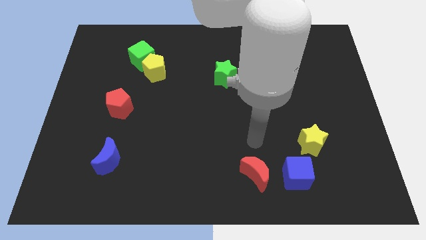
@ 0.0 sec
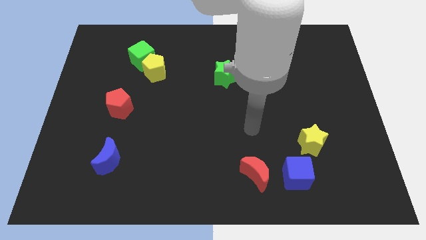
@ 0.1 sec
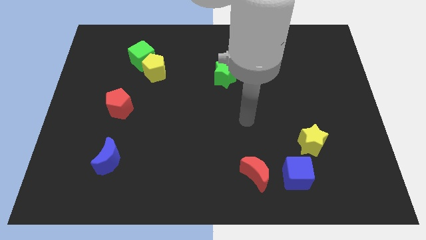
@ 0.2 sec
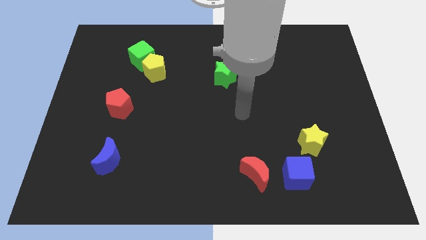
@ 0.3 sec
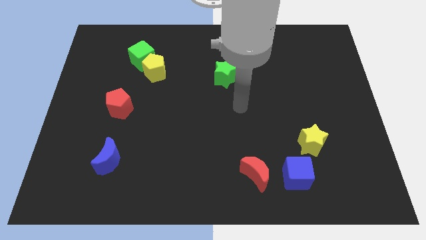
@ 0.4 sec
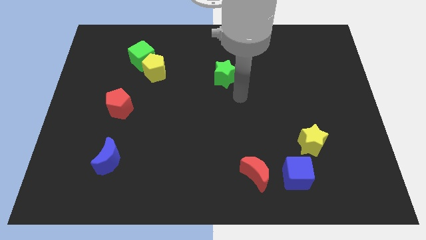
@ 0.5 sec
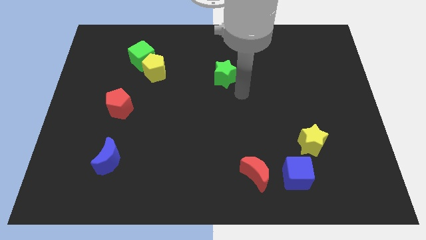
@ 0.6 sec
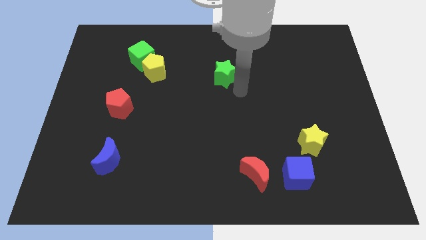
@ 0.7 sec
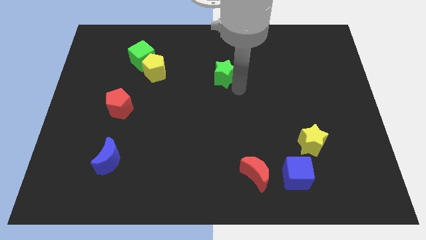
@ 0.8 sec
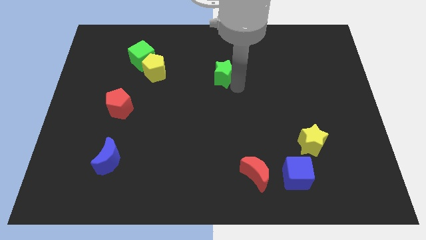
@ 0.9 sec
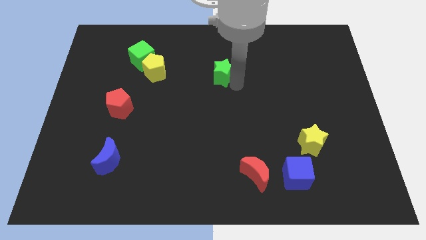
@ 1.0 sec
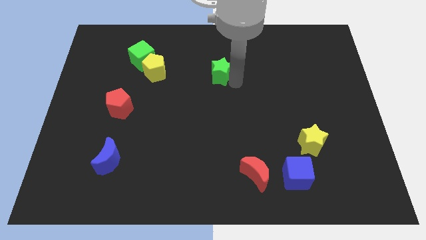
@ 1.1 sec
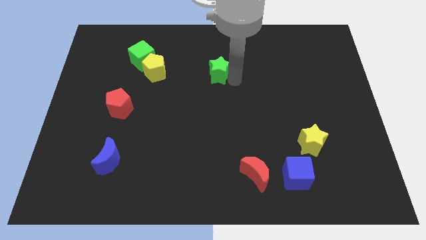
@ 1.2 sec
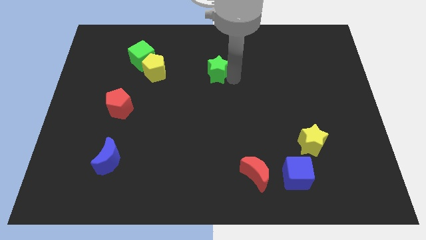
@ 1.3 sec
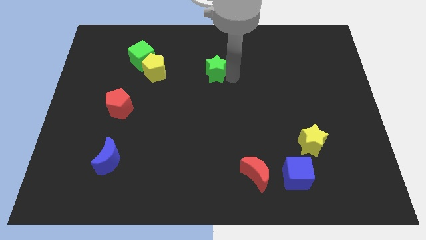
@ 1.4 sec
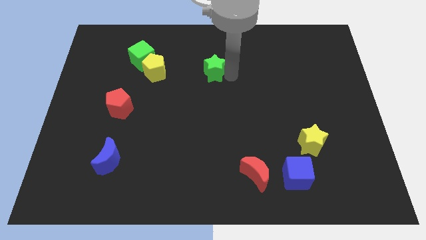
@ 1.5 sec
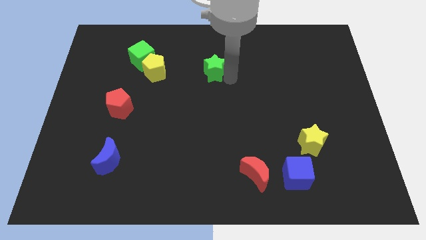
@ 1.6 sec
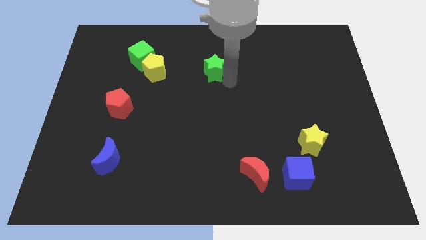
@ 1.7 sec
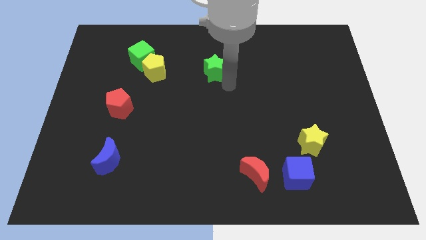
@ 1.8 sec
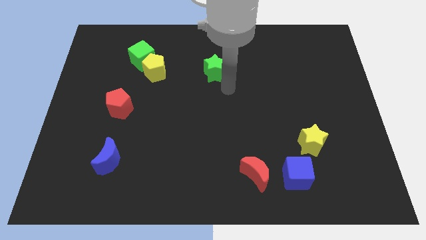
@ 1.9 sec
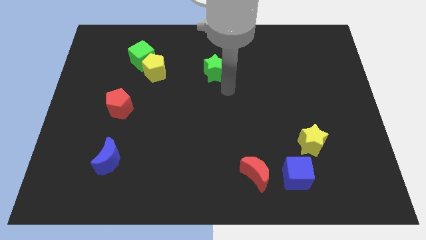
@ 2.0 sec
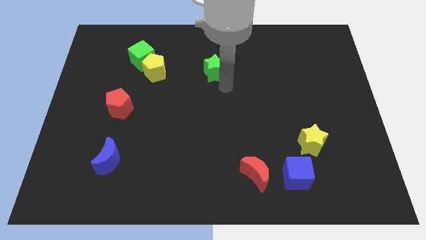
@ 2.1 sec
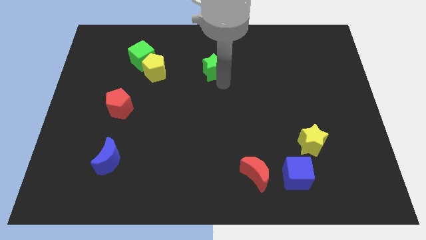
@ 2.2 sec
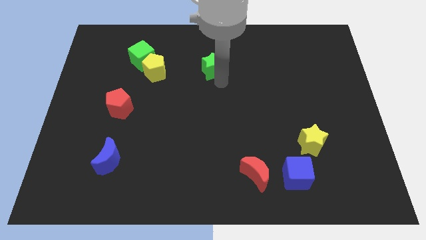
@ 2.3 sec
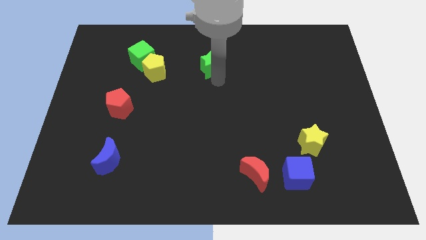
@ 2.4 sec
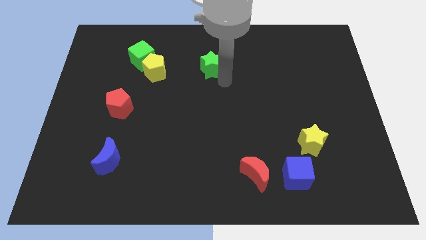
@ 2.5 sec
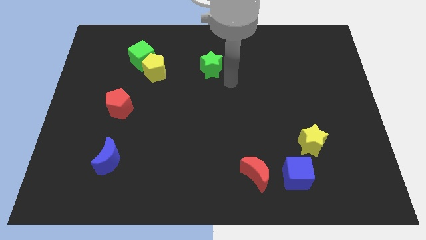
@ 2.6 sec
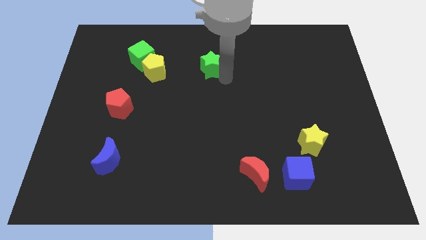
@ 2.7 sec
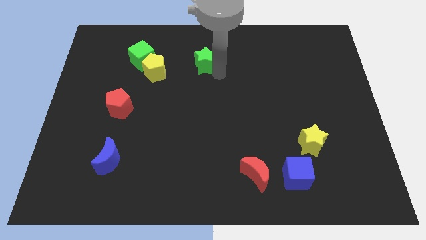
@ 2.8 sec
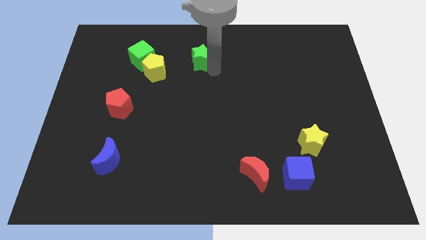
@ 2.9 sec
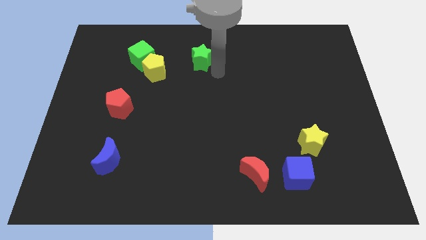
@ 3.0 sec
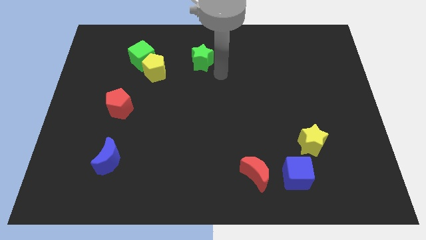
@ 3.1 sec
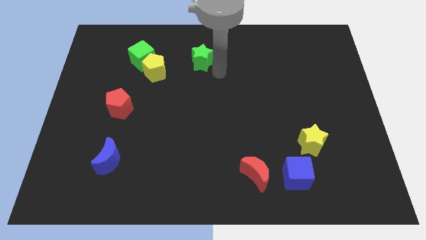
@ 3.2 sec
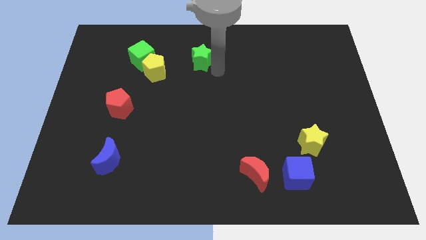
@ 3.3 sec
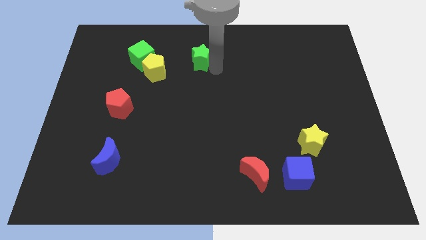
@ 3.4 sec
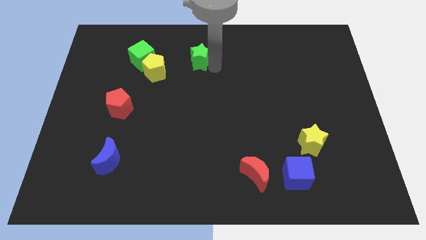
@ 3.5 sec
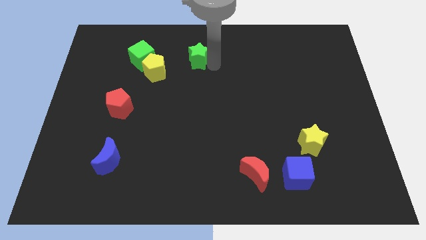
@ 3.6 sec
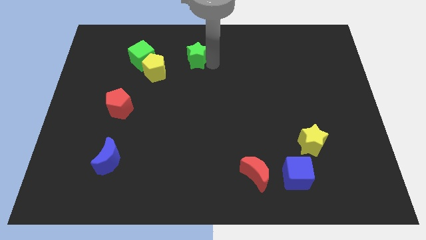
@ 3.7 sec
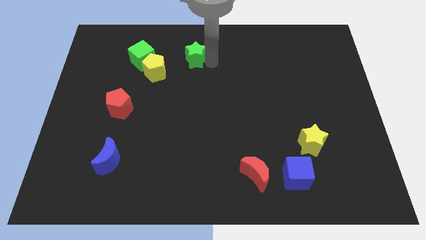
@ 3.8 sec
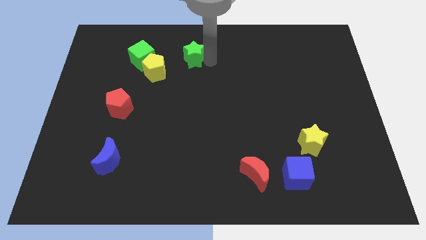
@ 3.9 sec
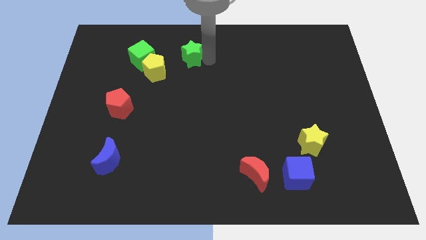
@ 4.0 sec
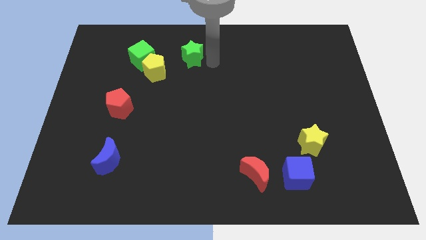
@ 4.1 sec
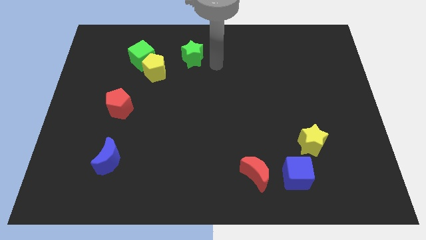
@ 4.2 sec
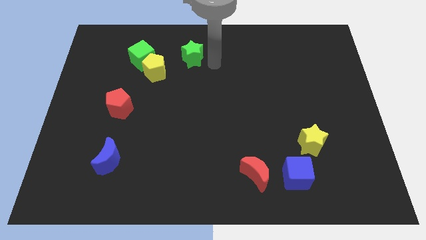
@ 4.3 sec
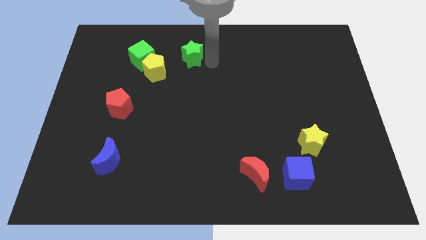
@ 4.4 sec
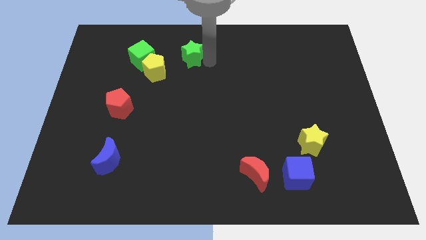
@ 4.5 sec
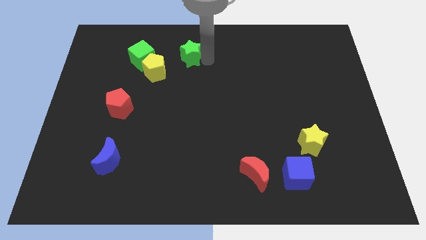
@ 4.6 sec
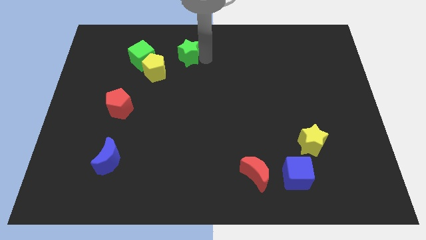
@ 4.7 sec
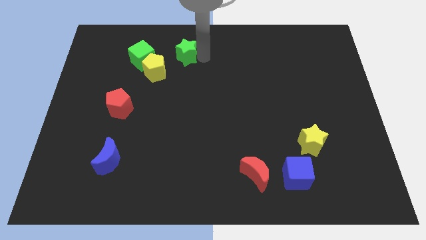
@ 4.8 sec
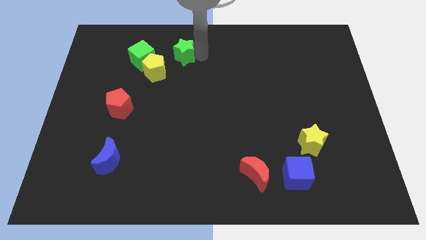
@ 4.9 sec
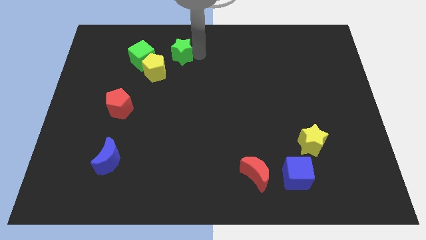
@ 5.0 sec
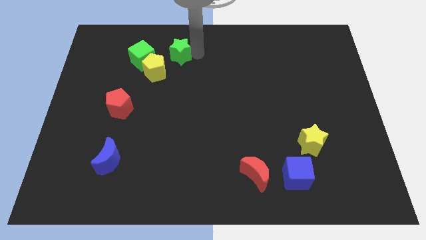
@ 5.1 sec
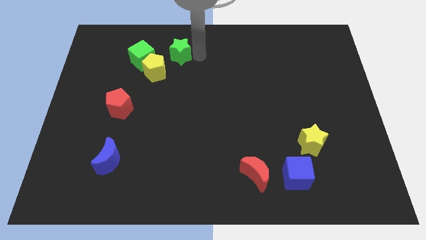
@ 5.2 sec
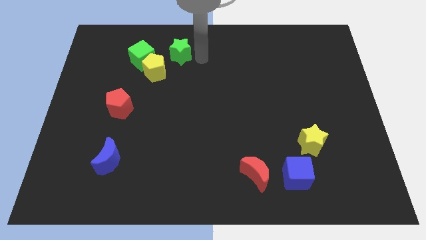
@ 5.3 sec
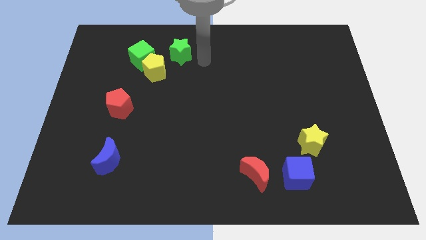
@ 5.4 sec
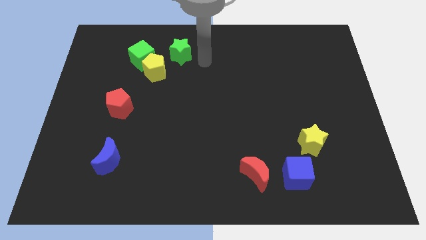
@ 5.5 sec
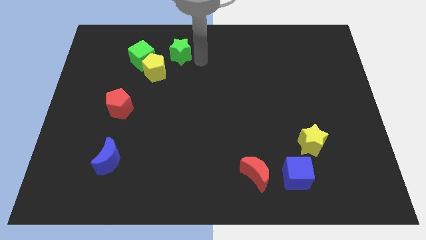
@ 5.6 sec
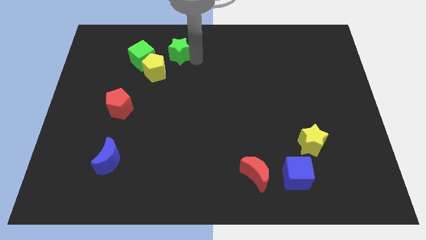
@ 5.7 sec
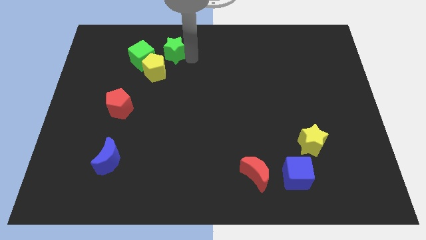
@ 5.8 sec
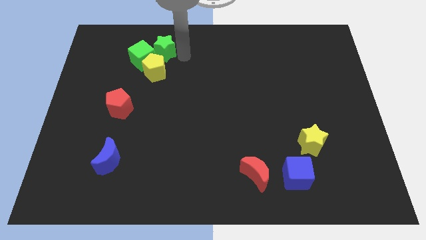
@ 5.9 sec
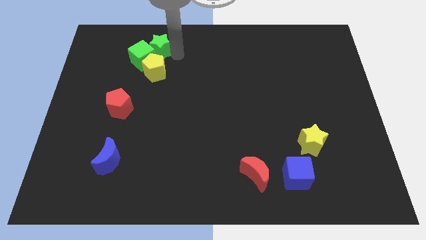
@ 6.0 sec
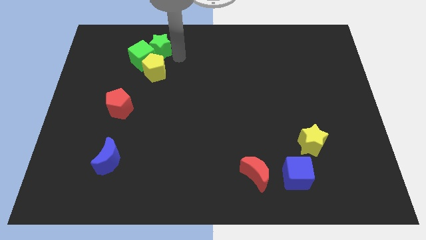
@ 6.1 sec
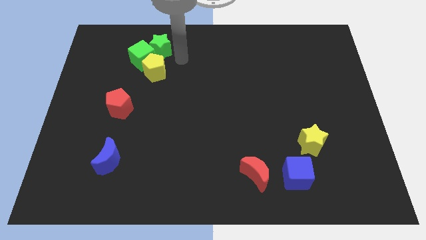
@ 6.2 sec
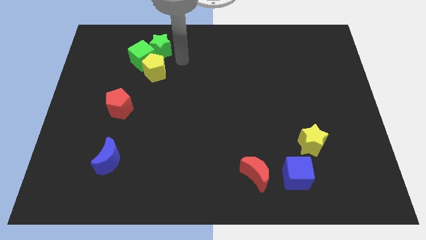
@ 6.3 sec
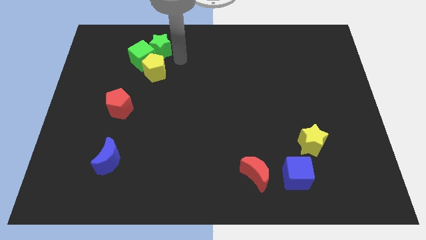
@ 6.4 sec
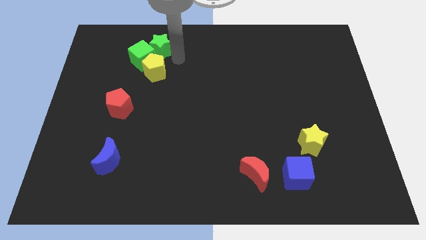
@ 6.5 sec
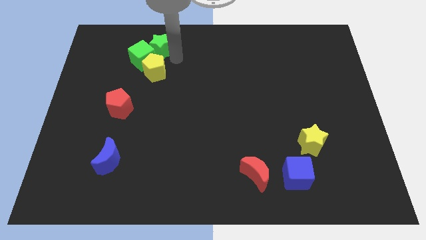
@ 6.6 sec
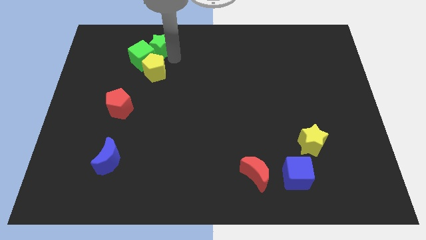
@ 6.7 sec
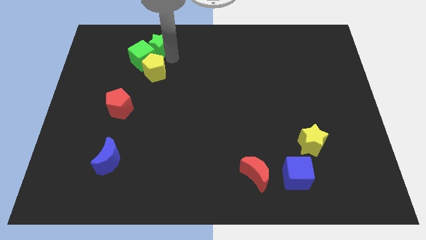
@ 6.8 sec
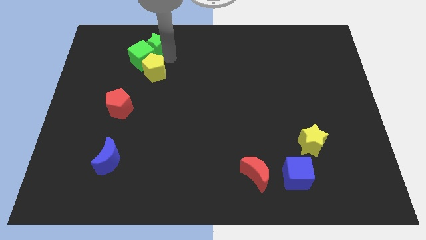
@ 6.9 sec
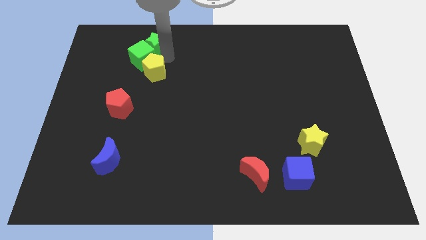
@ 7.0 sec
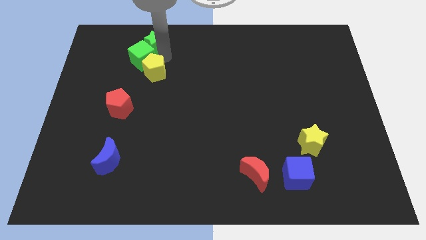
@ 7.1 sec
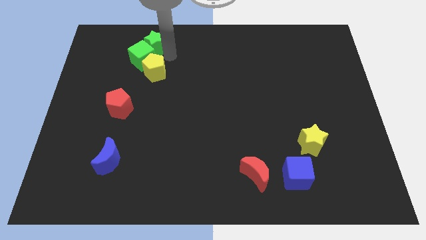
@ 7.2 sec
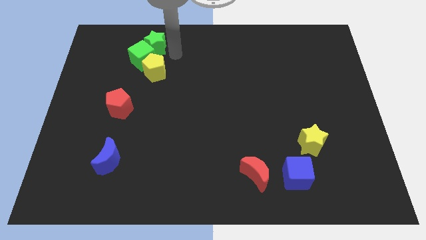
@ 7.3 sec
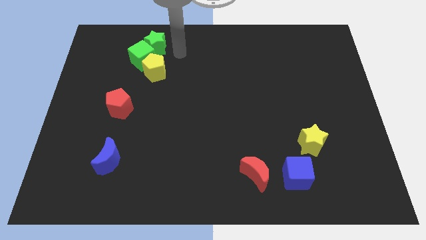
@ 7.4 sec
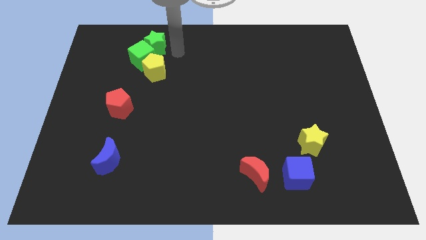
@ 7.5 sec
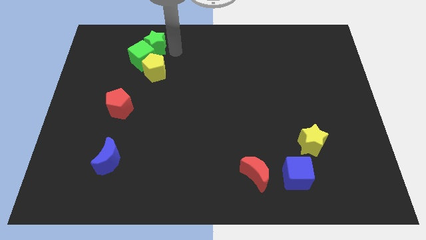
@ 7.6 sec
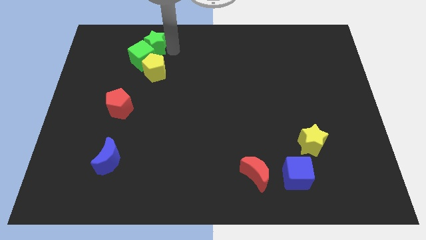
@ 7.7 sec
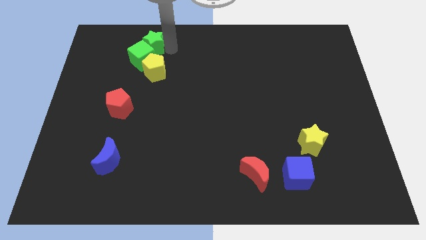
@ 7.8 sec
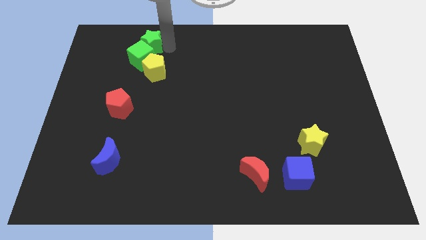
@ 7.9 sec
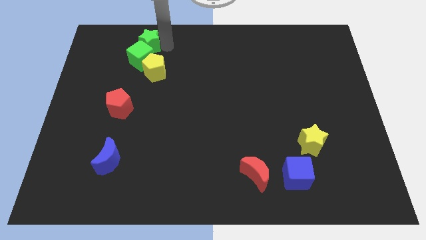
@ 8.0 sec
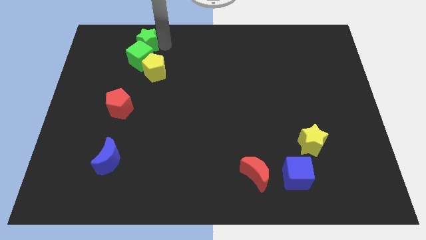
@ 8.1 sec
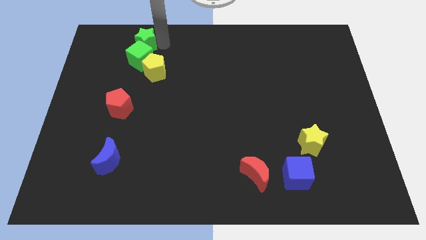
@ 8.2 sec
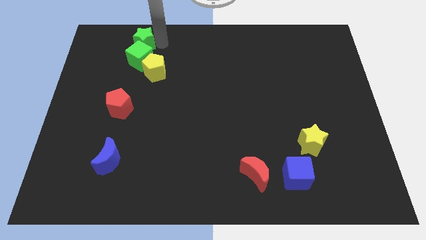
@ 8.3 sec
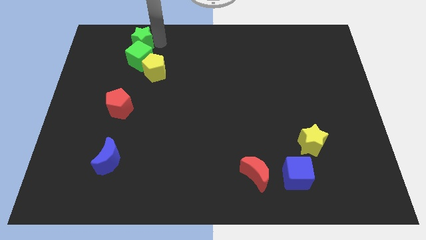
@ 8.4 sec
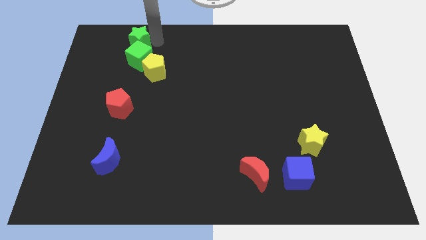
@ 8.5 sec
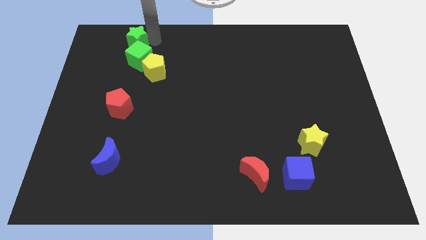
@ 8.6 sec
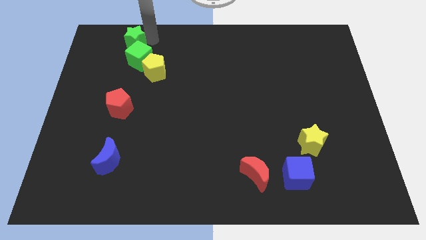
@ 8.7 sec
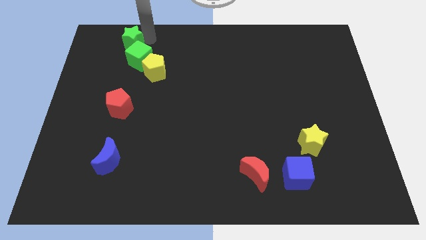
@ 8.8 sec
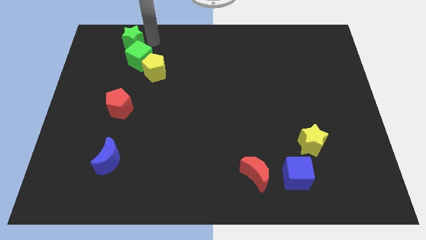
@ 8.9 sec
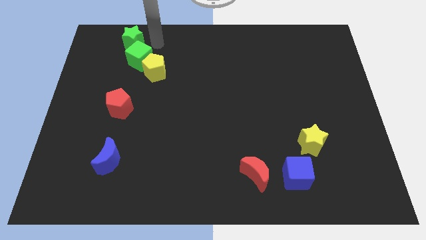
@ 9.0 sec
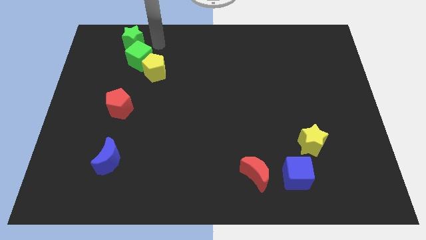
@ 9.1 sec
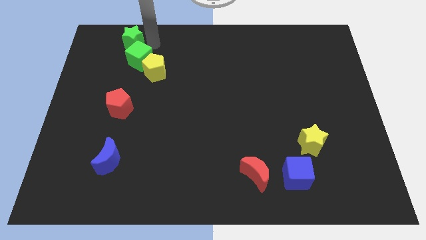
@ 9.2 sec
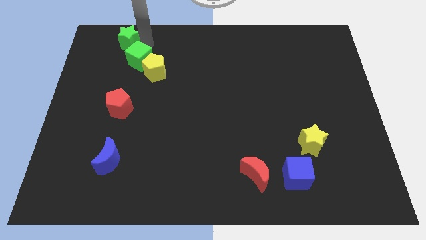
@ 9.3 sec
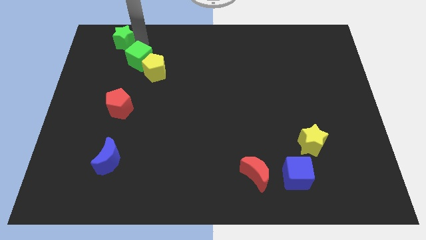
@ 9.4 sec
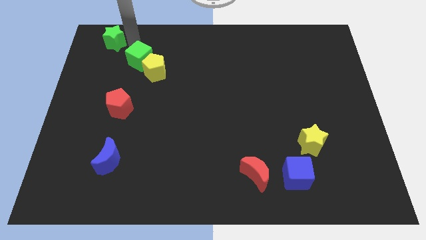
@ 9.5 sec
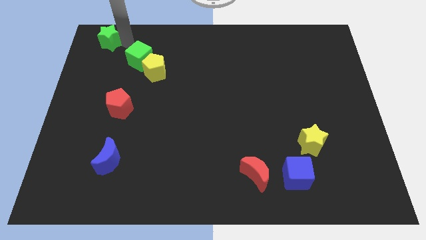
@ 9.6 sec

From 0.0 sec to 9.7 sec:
push the green star to the top left corner
